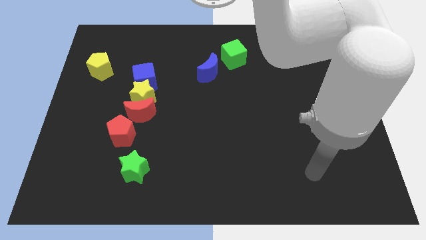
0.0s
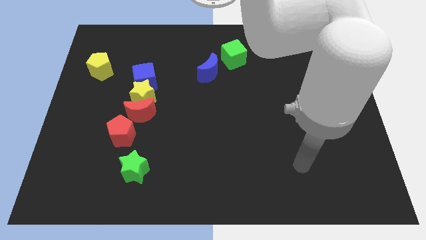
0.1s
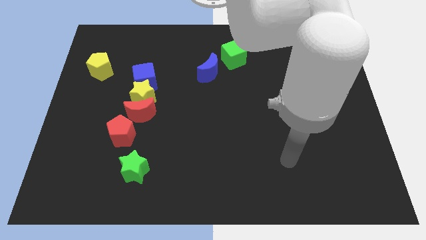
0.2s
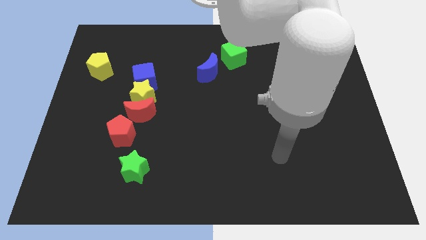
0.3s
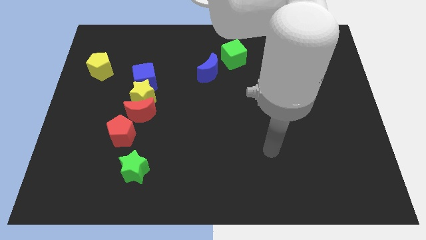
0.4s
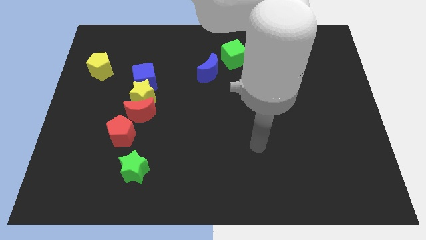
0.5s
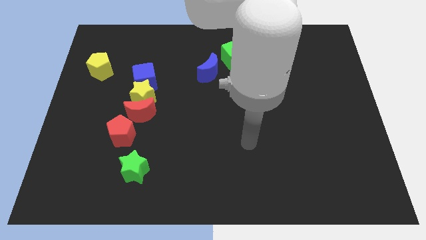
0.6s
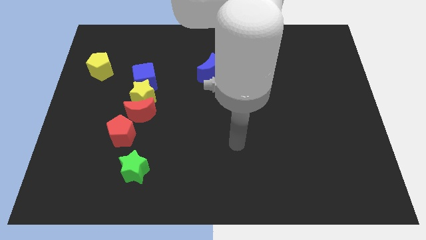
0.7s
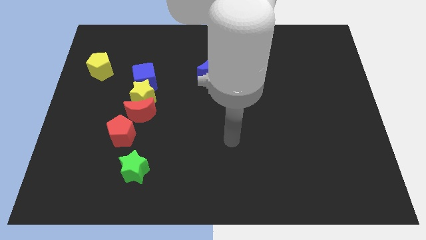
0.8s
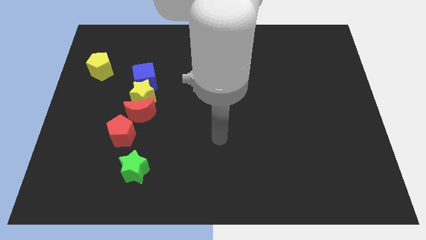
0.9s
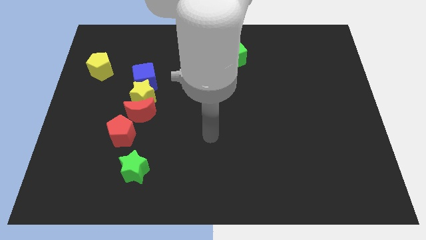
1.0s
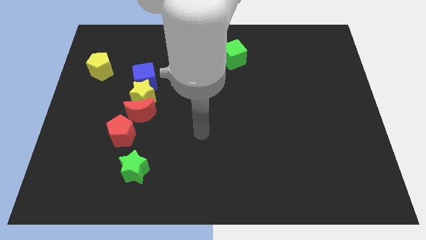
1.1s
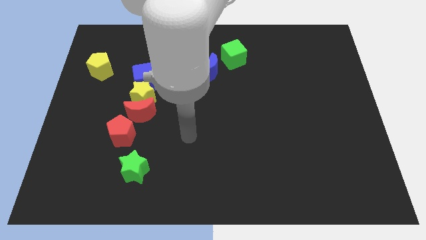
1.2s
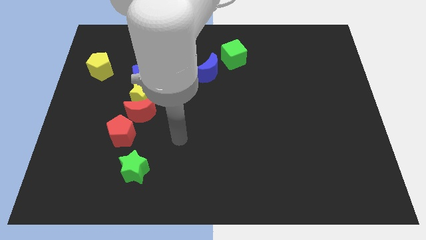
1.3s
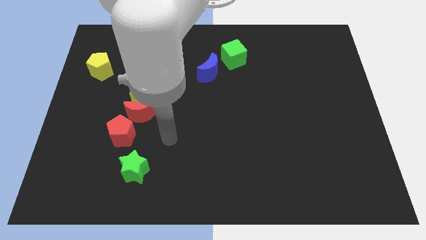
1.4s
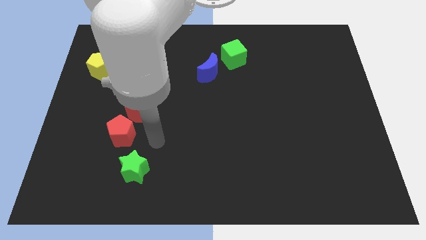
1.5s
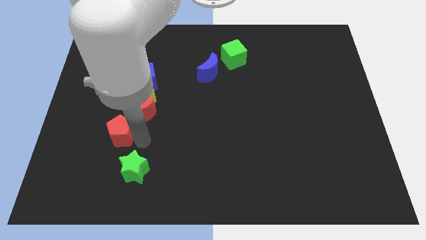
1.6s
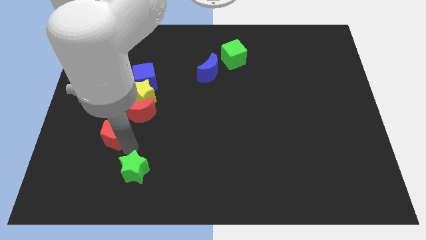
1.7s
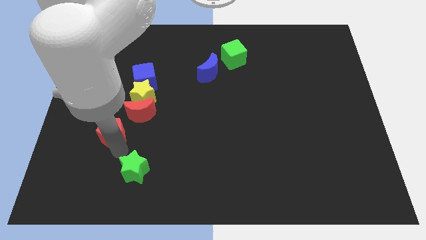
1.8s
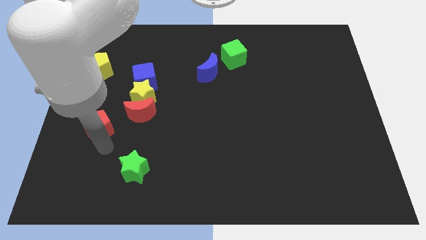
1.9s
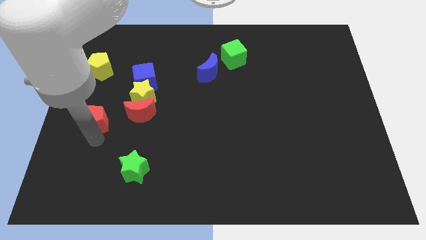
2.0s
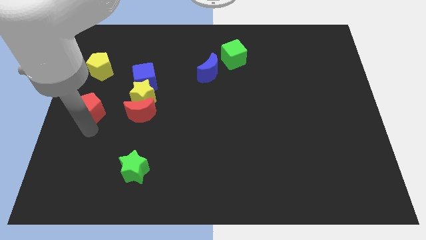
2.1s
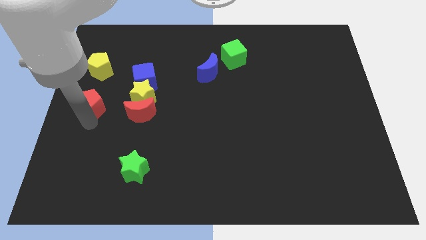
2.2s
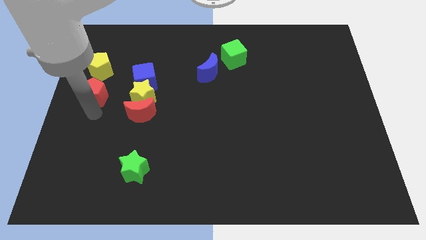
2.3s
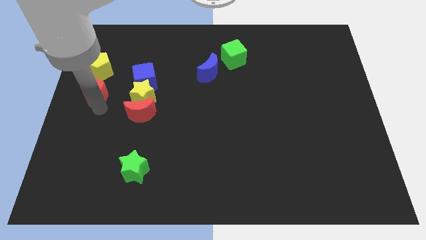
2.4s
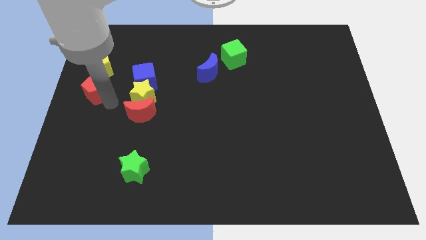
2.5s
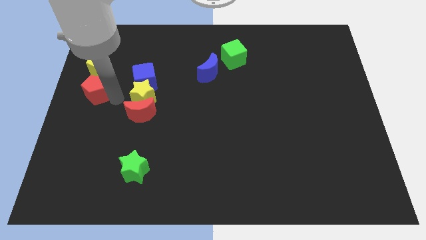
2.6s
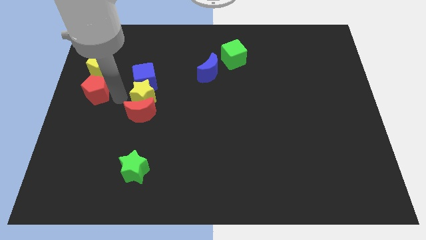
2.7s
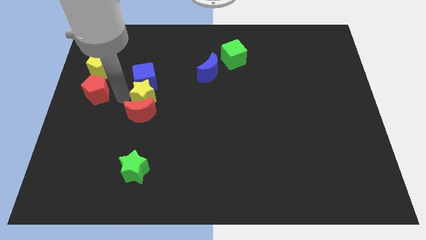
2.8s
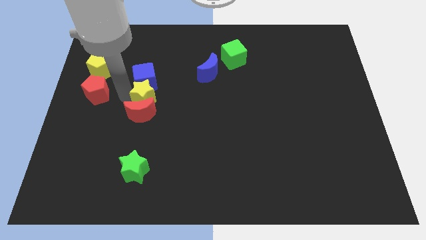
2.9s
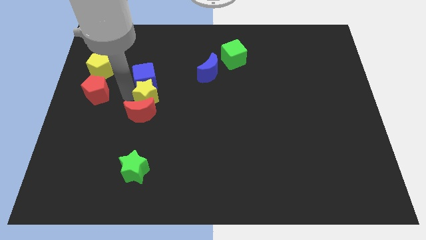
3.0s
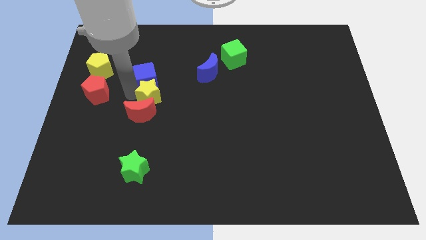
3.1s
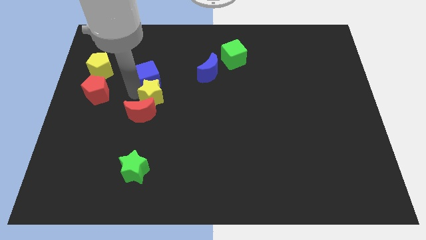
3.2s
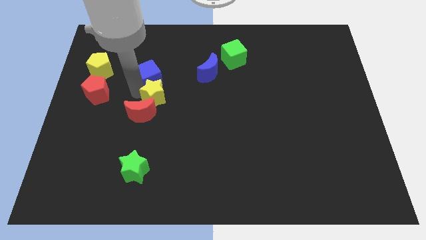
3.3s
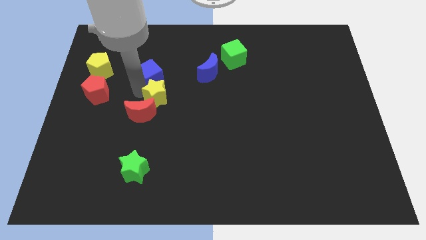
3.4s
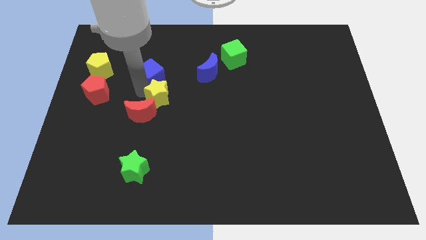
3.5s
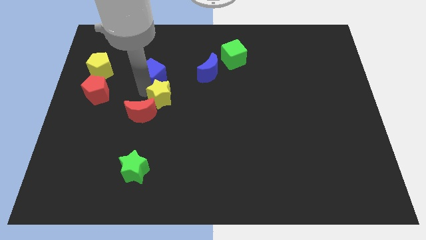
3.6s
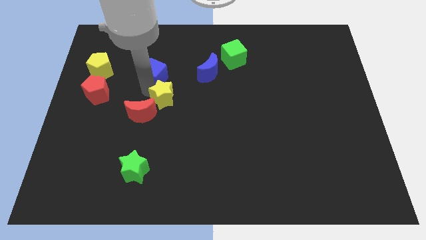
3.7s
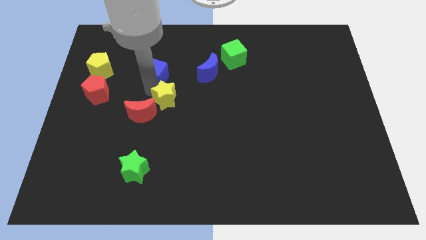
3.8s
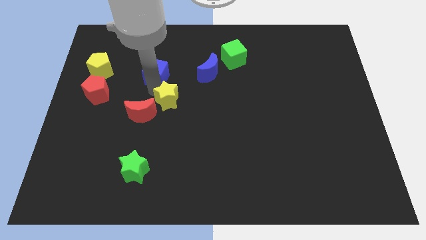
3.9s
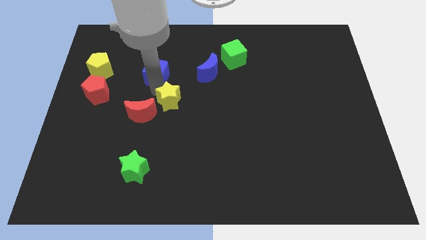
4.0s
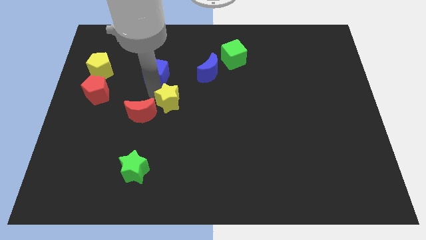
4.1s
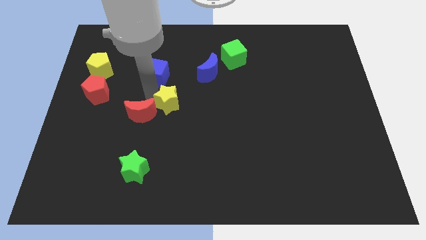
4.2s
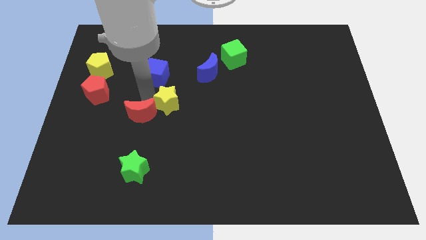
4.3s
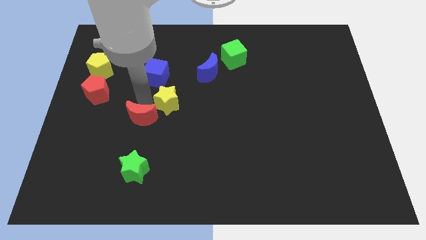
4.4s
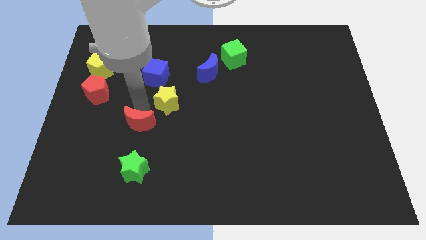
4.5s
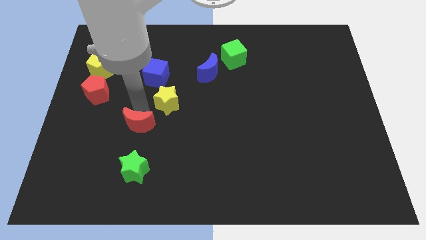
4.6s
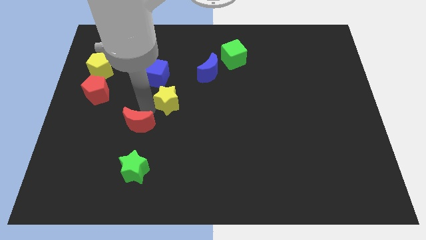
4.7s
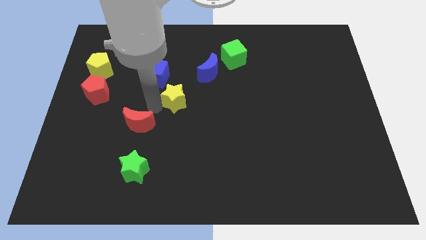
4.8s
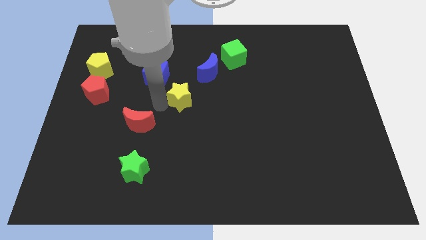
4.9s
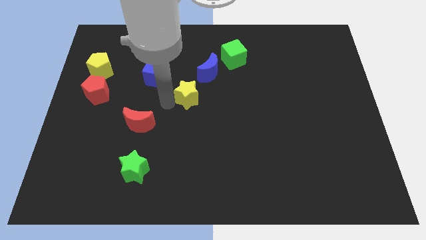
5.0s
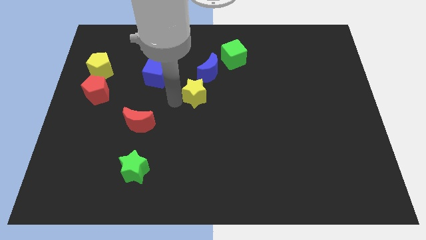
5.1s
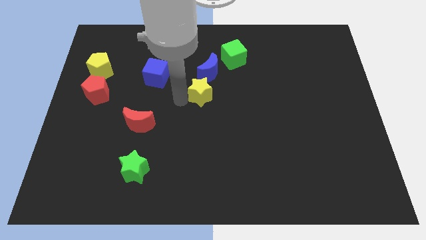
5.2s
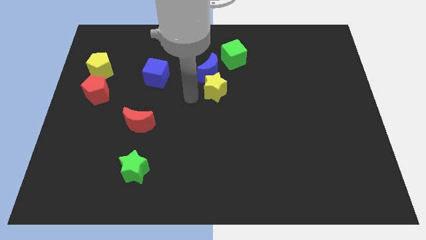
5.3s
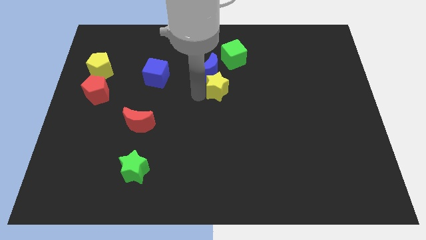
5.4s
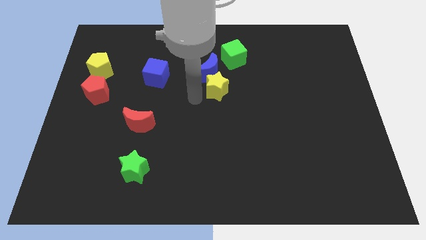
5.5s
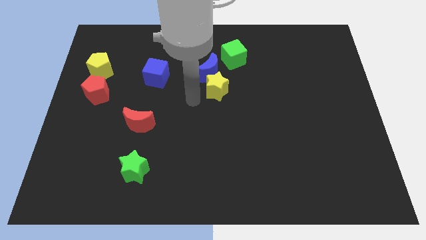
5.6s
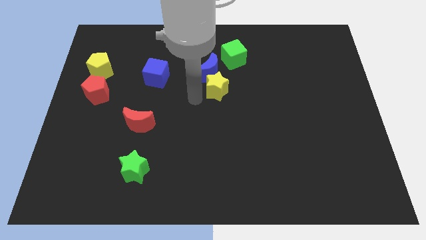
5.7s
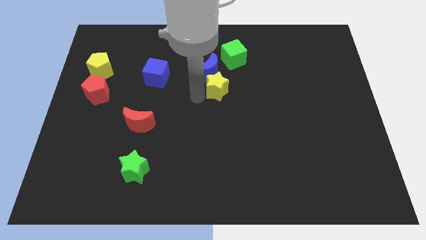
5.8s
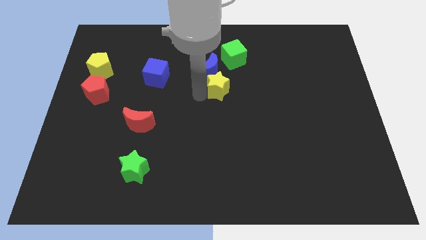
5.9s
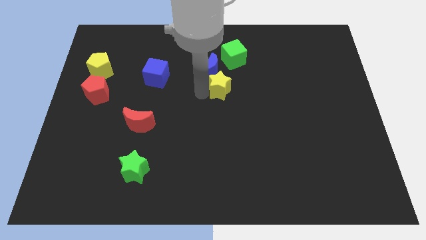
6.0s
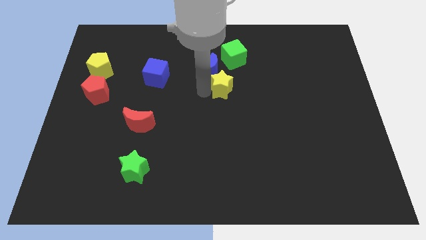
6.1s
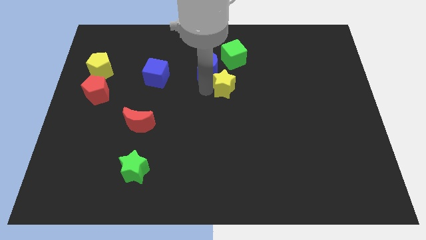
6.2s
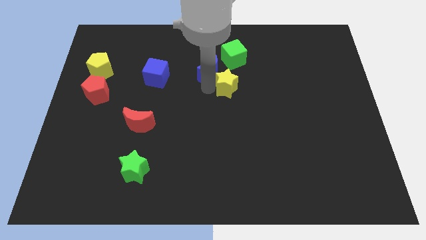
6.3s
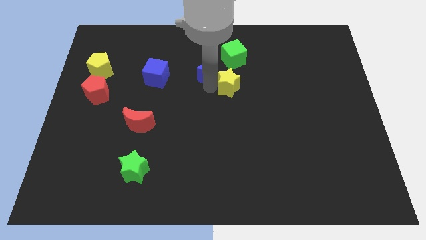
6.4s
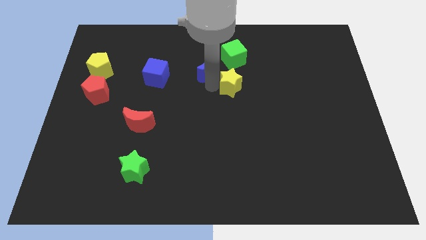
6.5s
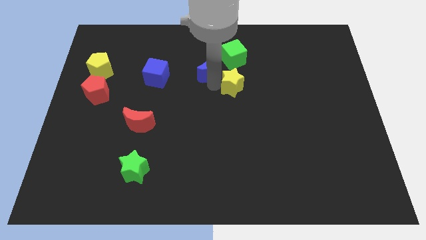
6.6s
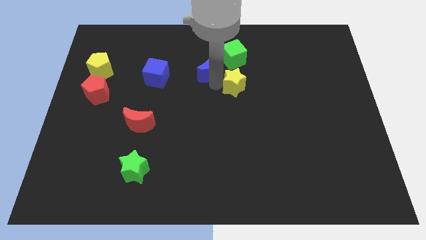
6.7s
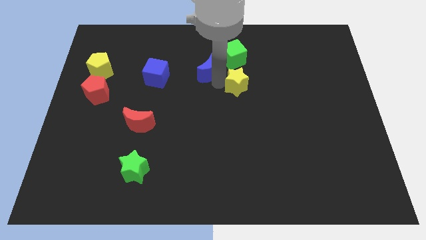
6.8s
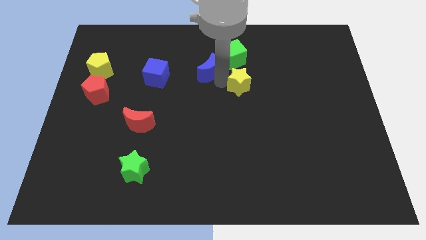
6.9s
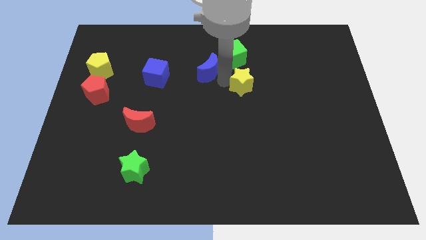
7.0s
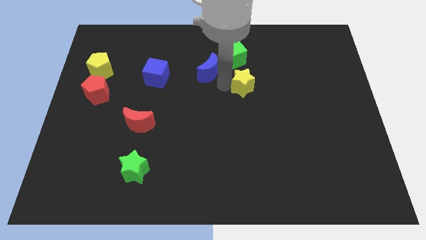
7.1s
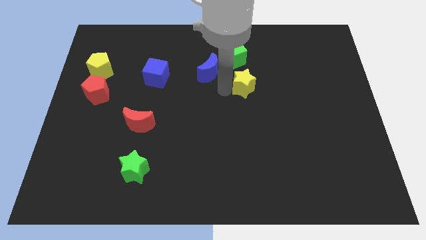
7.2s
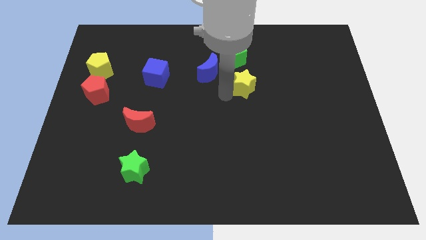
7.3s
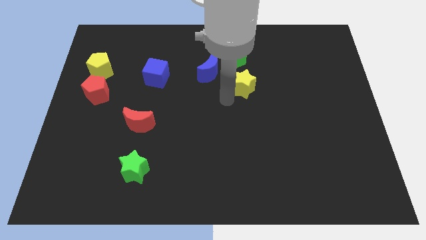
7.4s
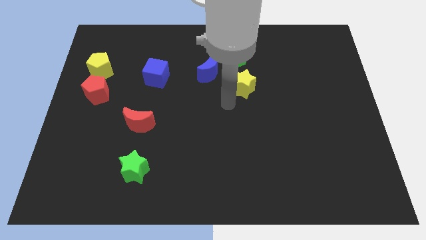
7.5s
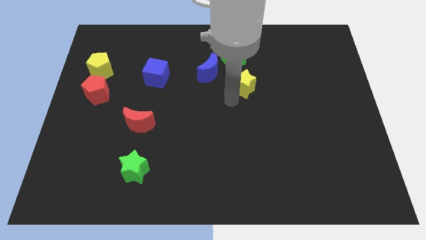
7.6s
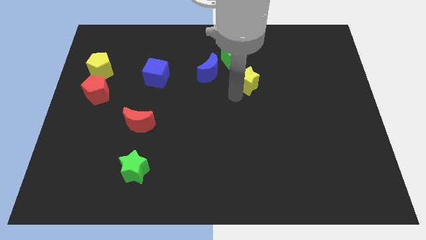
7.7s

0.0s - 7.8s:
push the yellow star to the bottom right of the green cube
